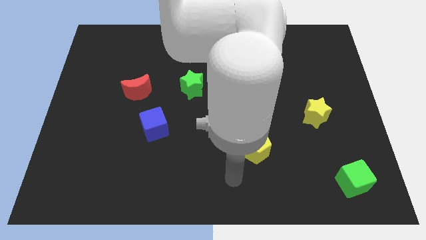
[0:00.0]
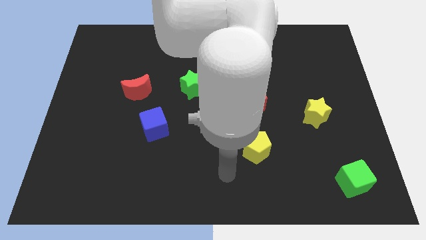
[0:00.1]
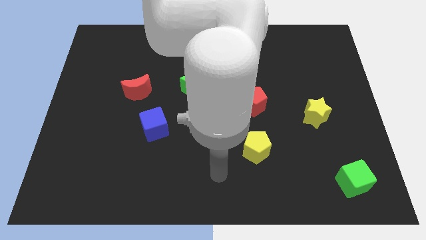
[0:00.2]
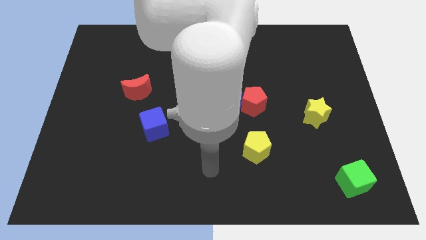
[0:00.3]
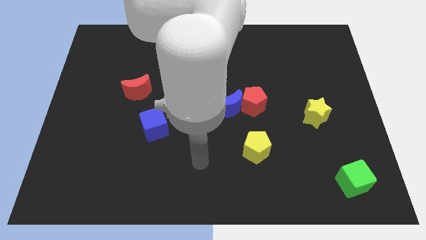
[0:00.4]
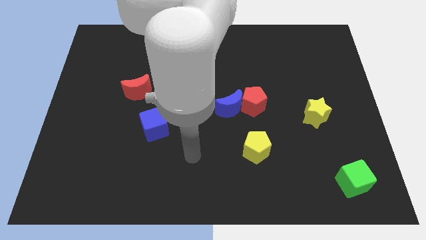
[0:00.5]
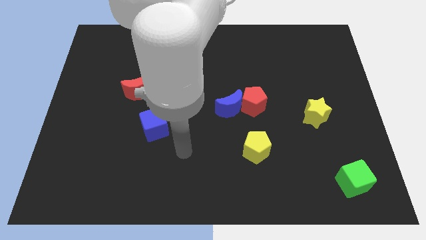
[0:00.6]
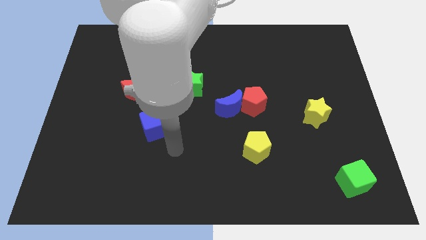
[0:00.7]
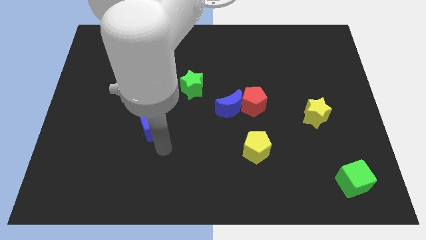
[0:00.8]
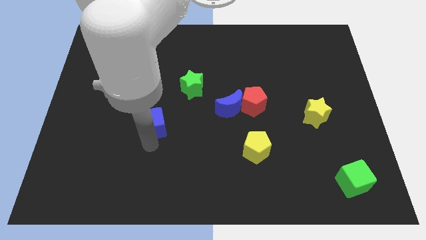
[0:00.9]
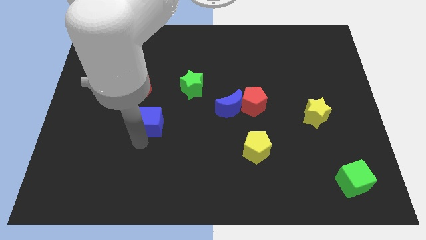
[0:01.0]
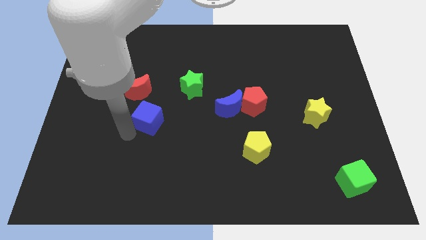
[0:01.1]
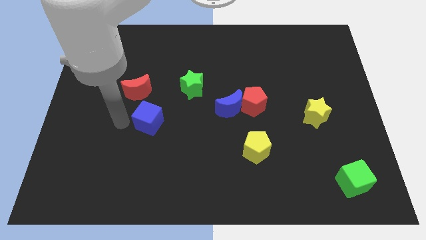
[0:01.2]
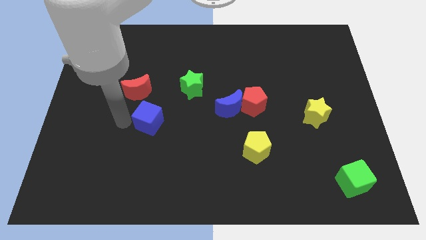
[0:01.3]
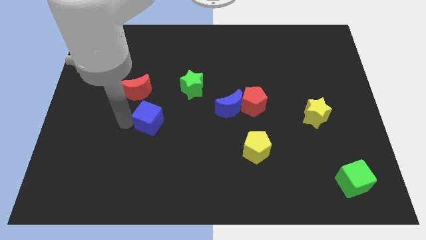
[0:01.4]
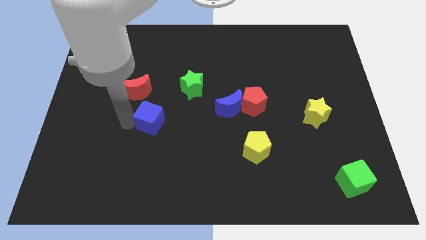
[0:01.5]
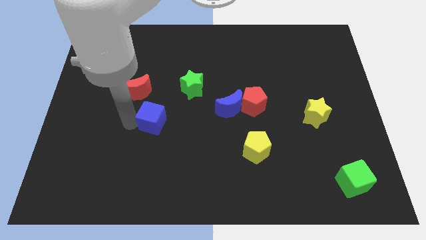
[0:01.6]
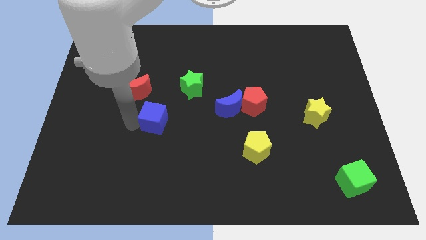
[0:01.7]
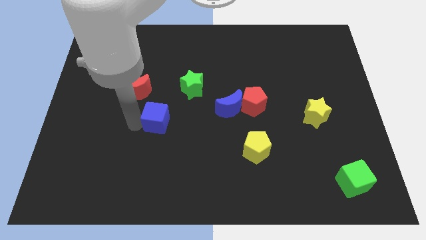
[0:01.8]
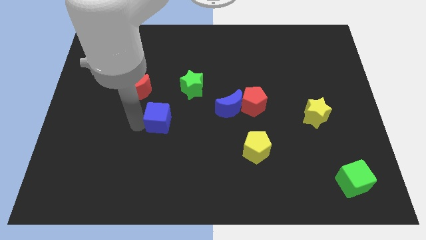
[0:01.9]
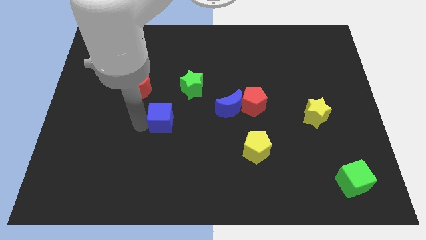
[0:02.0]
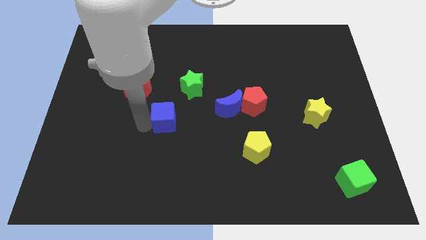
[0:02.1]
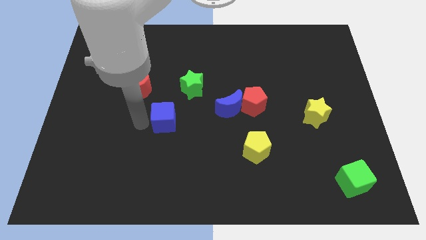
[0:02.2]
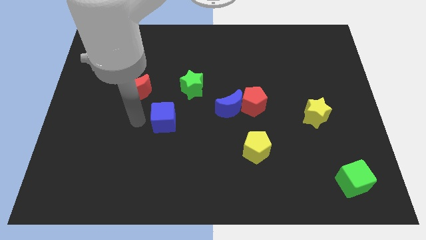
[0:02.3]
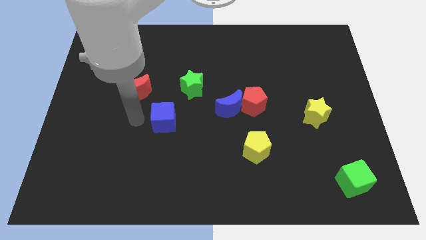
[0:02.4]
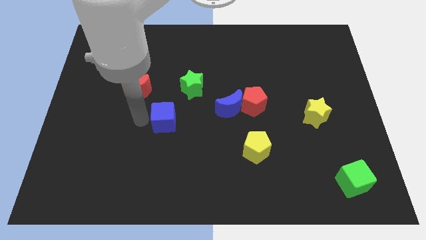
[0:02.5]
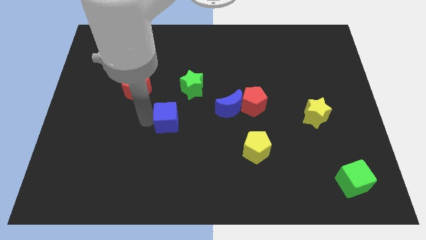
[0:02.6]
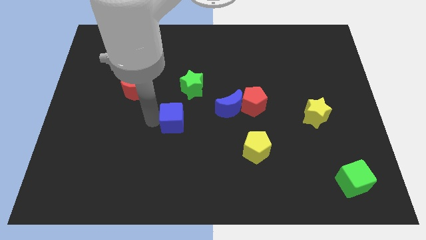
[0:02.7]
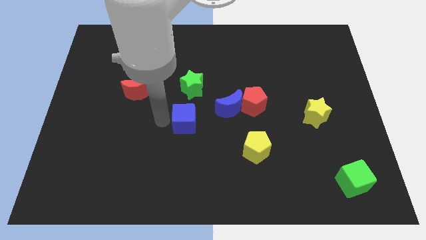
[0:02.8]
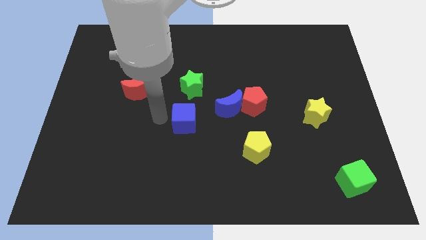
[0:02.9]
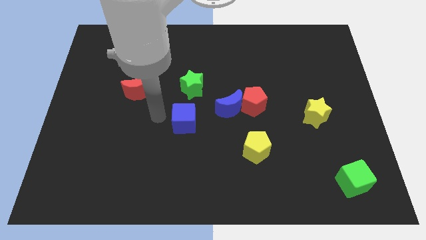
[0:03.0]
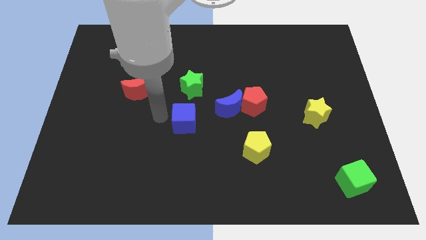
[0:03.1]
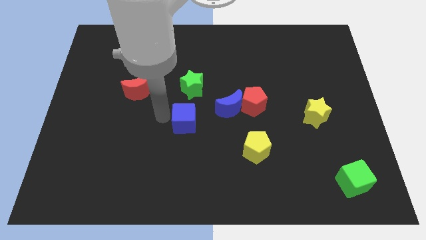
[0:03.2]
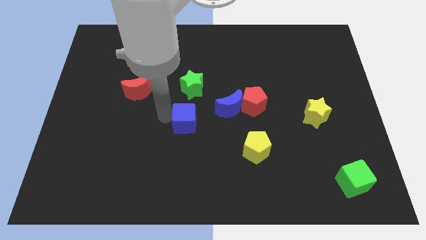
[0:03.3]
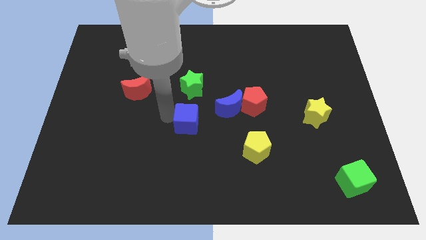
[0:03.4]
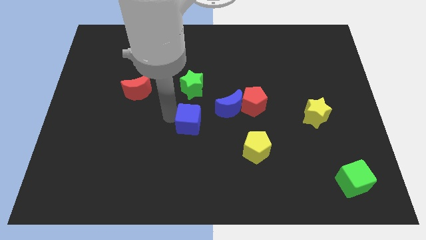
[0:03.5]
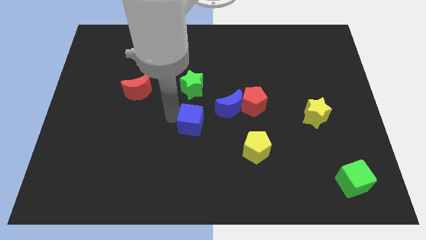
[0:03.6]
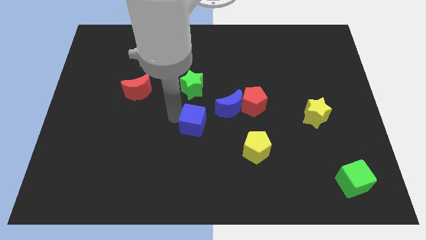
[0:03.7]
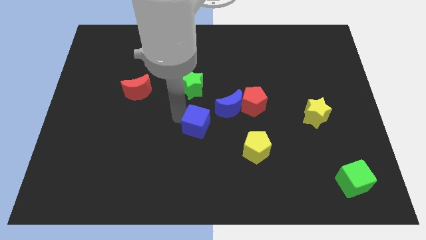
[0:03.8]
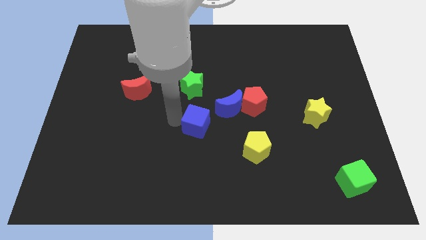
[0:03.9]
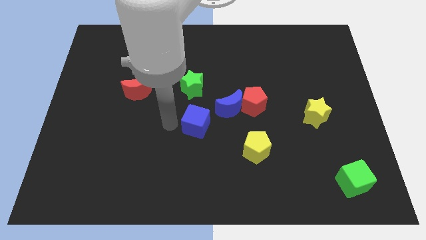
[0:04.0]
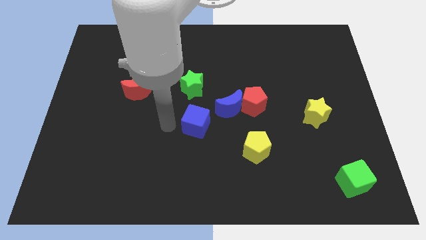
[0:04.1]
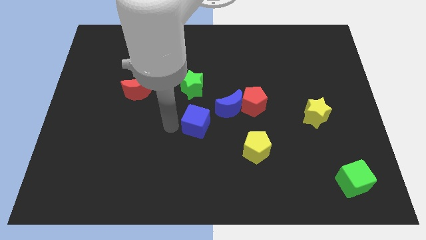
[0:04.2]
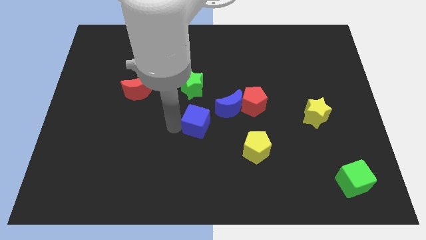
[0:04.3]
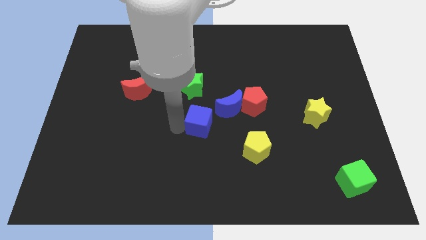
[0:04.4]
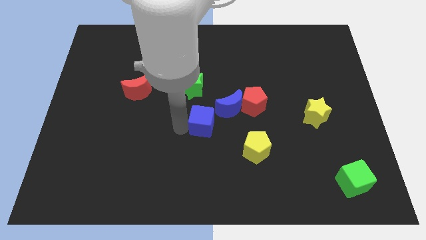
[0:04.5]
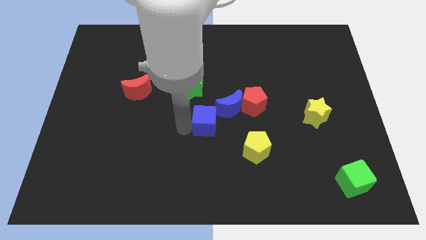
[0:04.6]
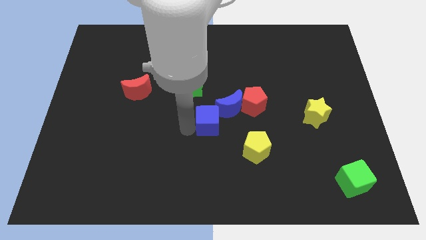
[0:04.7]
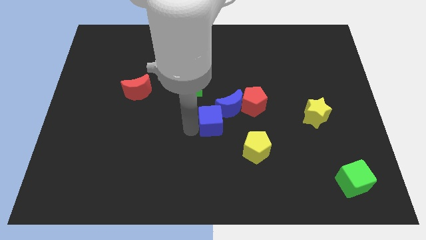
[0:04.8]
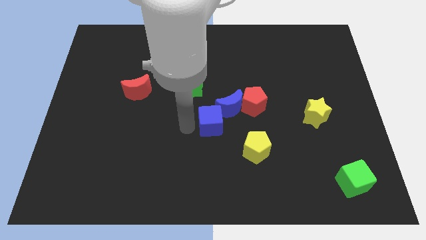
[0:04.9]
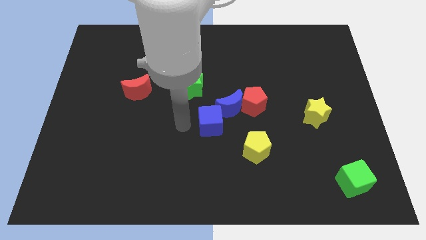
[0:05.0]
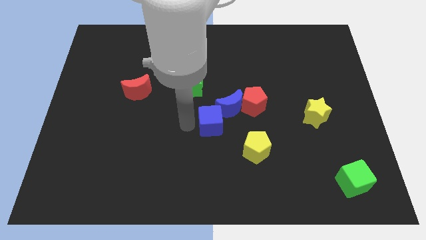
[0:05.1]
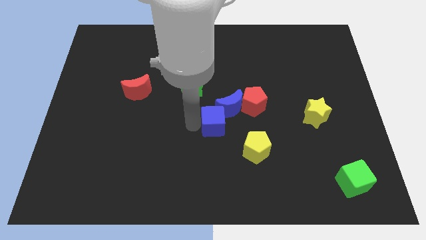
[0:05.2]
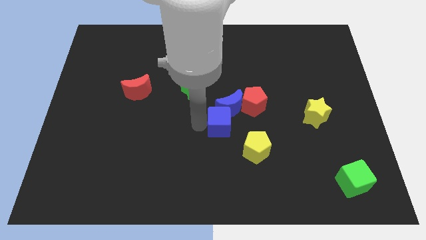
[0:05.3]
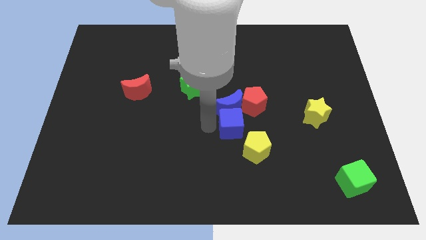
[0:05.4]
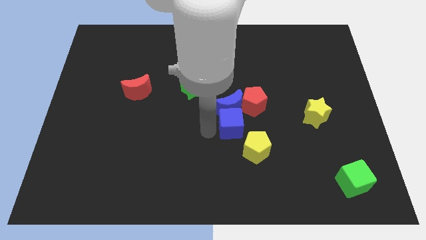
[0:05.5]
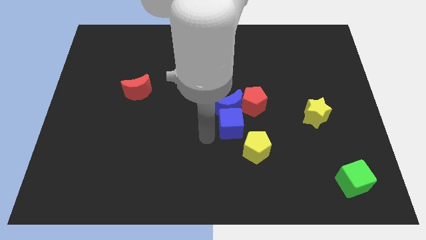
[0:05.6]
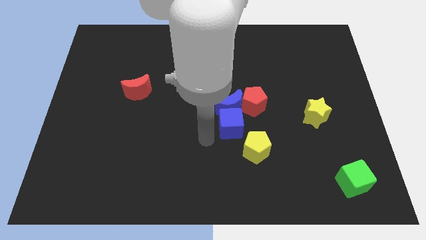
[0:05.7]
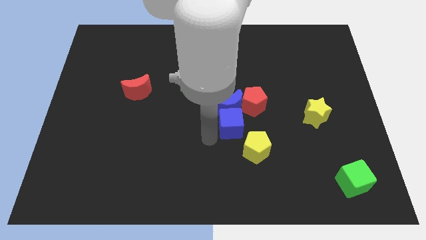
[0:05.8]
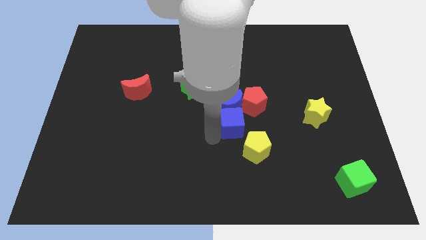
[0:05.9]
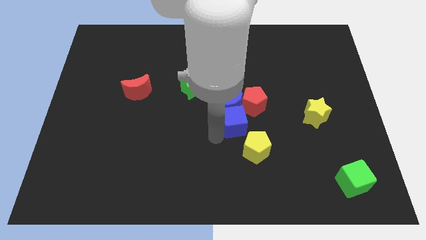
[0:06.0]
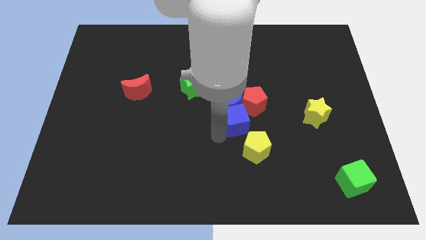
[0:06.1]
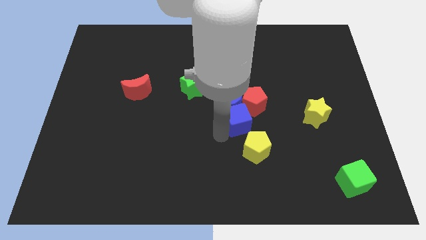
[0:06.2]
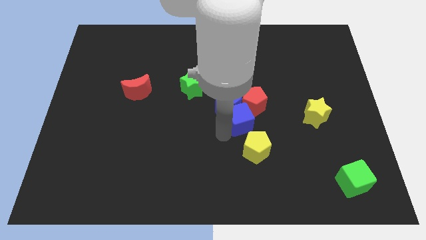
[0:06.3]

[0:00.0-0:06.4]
move the blue cube towards the red pentagon

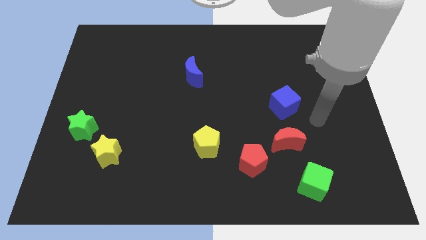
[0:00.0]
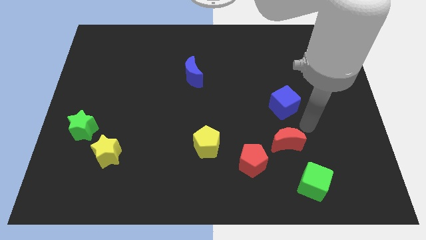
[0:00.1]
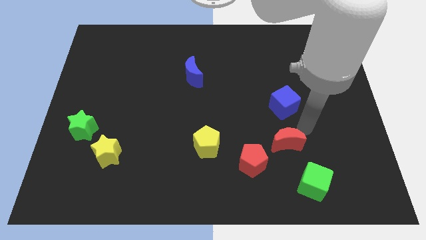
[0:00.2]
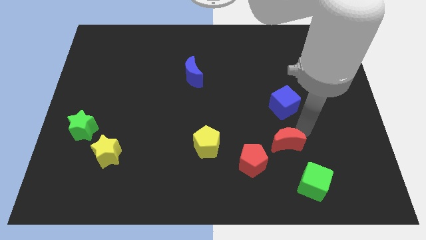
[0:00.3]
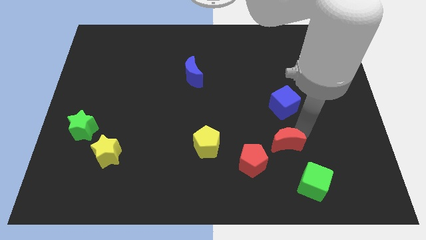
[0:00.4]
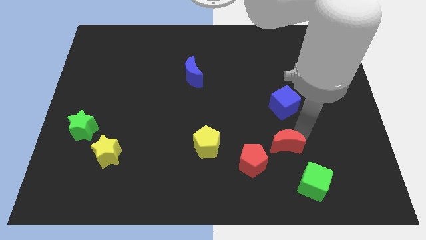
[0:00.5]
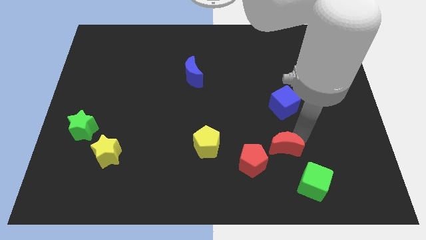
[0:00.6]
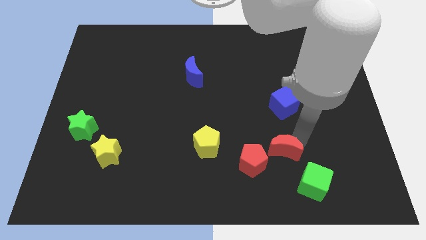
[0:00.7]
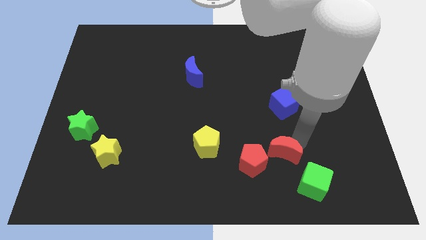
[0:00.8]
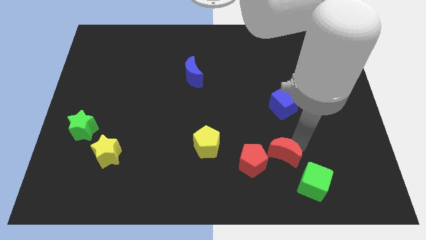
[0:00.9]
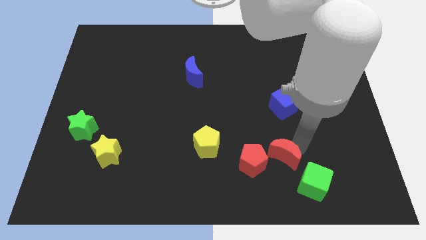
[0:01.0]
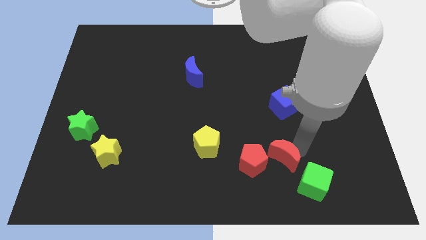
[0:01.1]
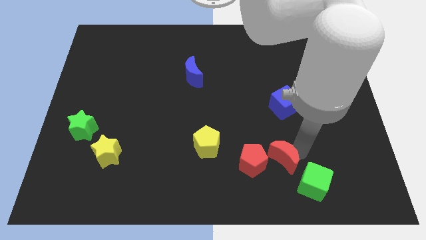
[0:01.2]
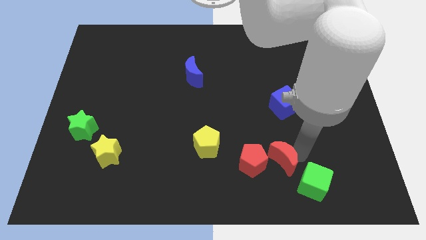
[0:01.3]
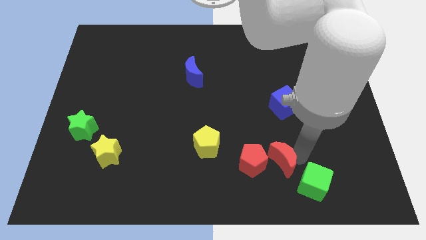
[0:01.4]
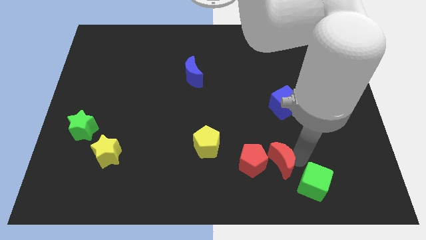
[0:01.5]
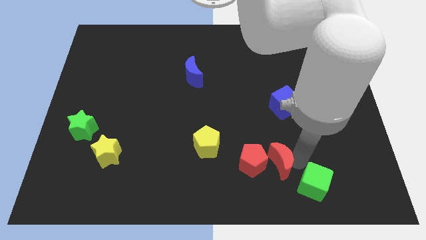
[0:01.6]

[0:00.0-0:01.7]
move the red moon towards the red pentagon
